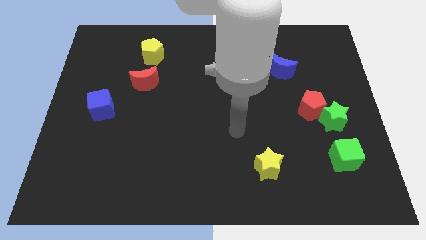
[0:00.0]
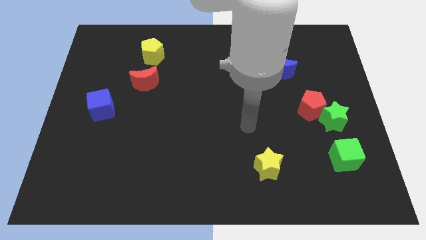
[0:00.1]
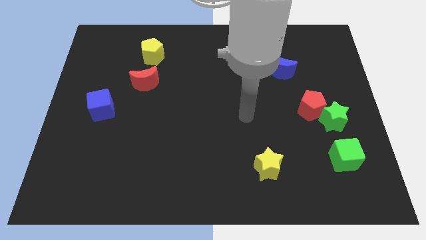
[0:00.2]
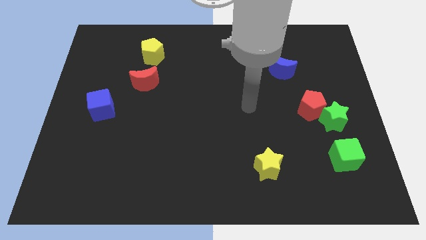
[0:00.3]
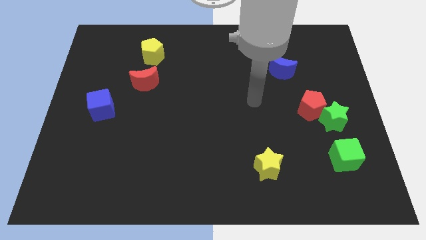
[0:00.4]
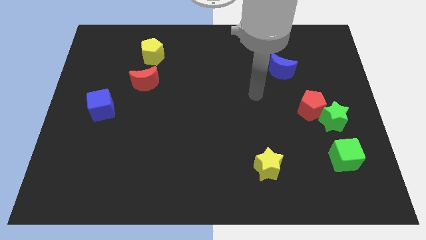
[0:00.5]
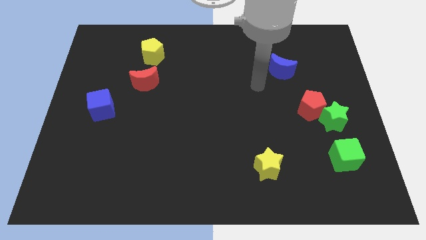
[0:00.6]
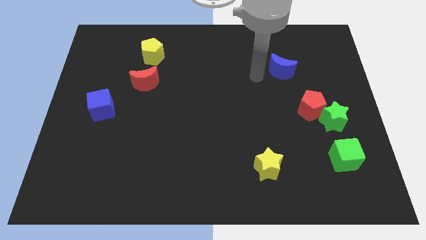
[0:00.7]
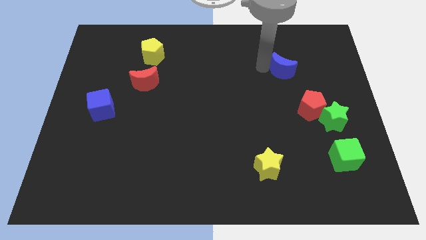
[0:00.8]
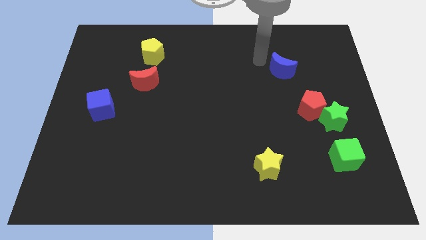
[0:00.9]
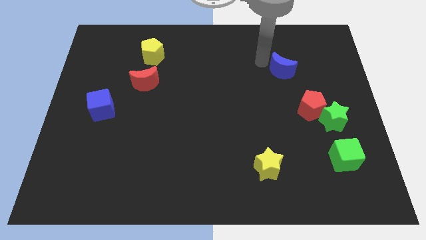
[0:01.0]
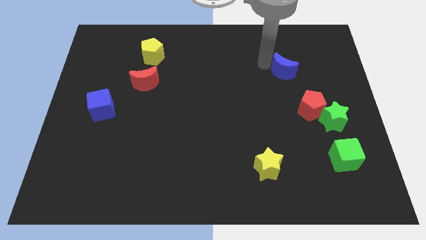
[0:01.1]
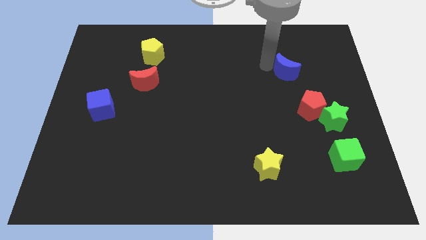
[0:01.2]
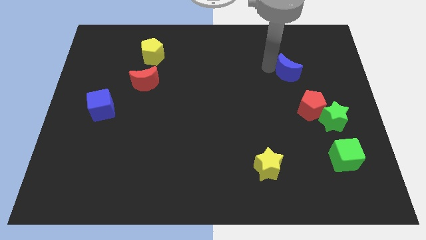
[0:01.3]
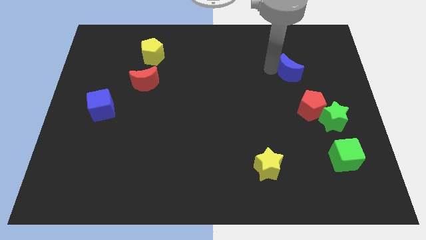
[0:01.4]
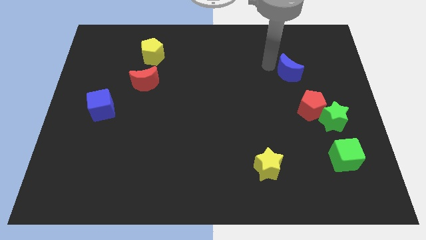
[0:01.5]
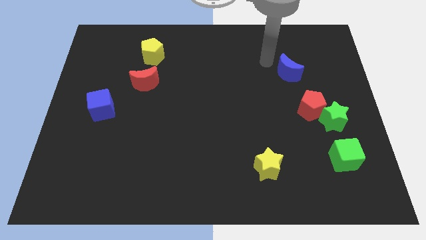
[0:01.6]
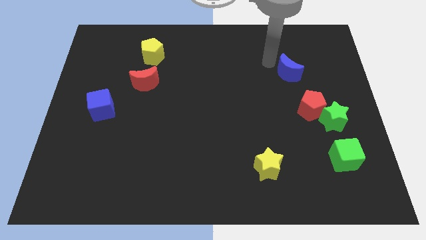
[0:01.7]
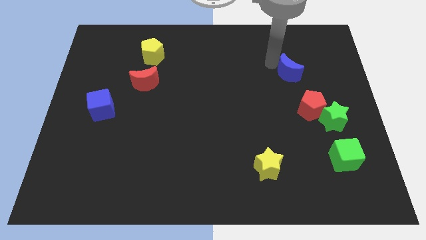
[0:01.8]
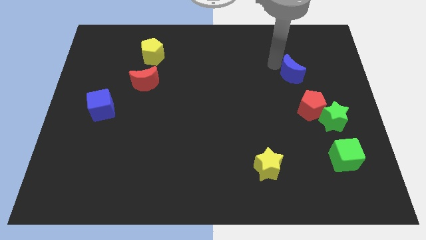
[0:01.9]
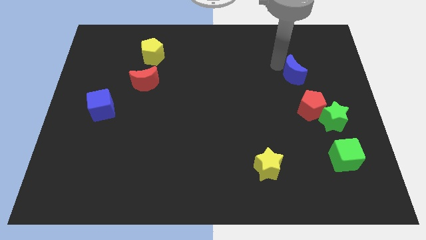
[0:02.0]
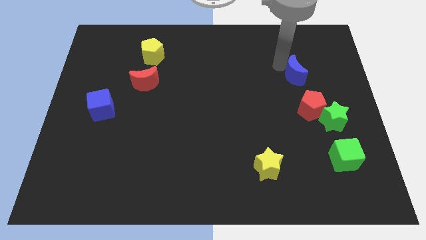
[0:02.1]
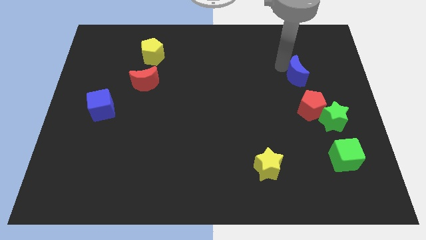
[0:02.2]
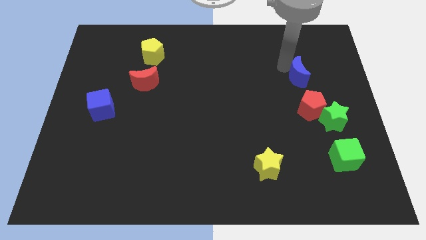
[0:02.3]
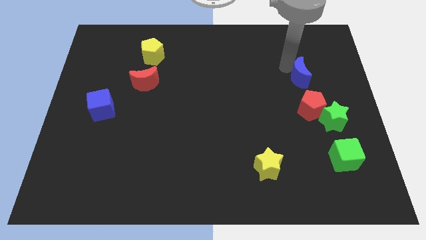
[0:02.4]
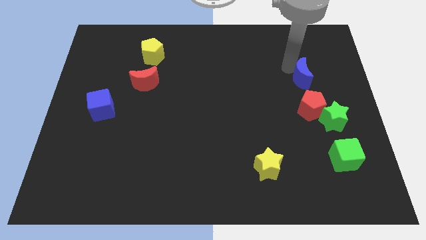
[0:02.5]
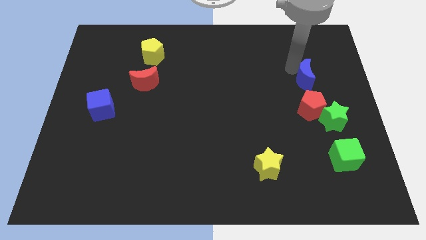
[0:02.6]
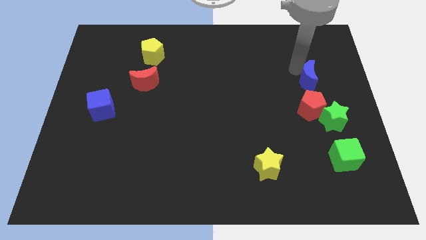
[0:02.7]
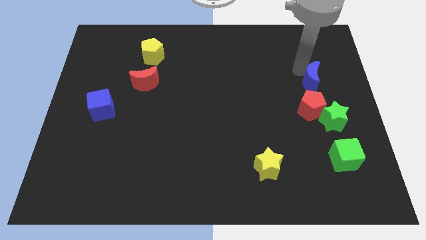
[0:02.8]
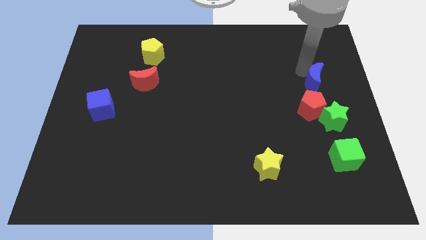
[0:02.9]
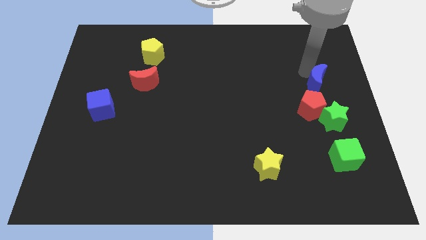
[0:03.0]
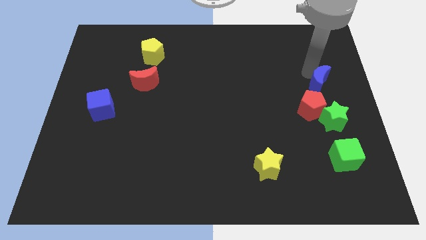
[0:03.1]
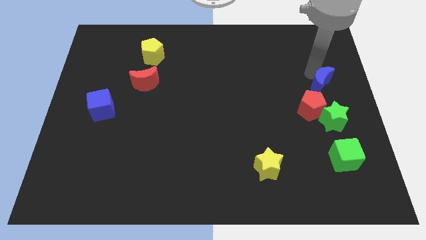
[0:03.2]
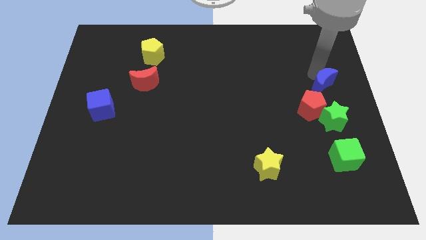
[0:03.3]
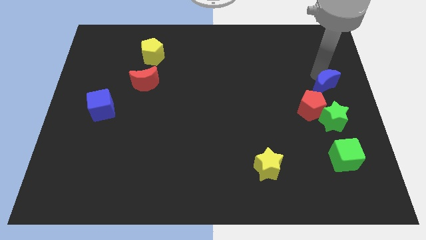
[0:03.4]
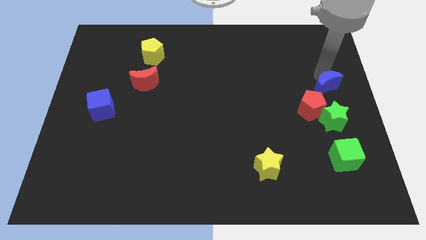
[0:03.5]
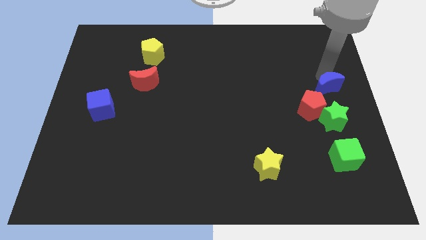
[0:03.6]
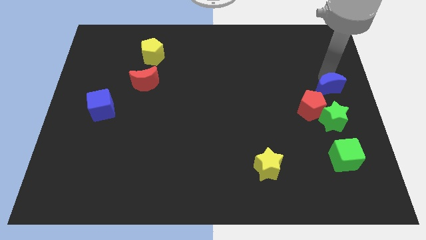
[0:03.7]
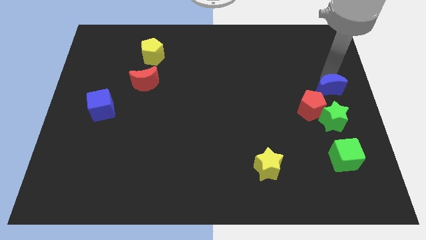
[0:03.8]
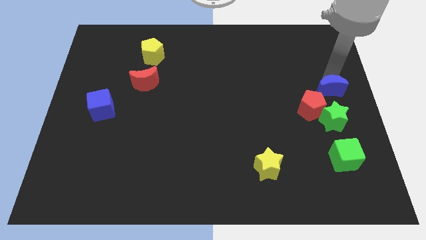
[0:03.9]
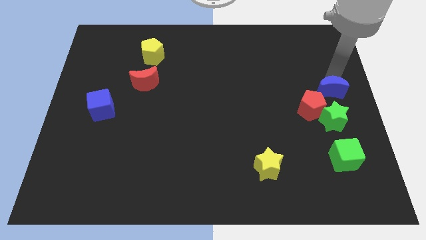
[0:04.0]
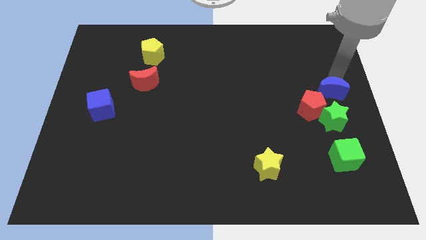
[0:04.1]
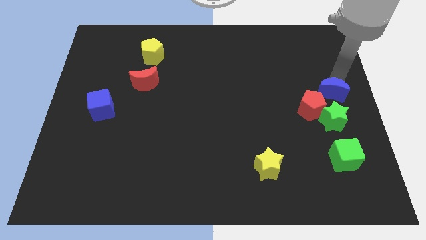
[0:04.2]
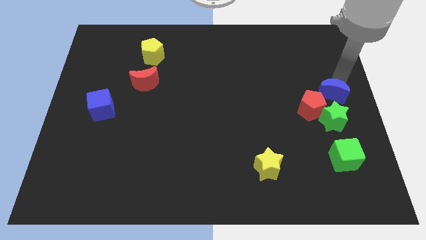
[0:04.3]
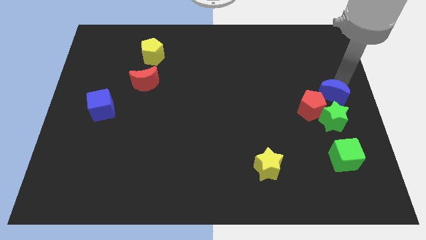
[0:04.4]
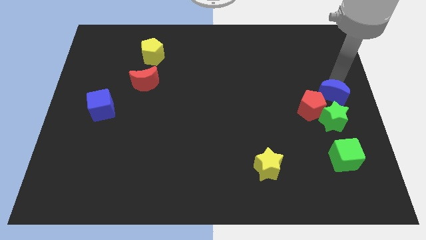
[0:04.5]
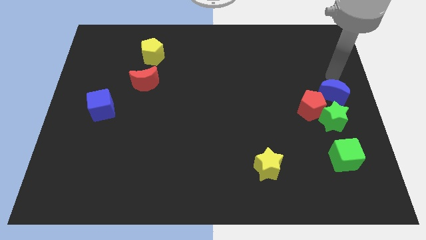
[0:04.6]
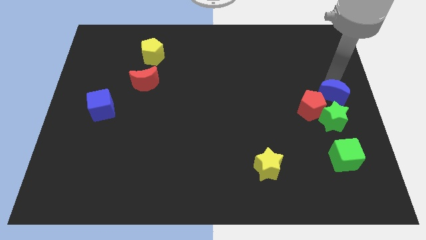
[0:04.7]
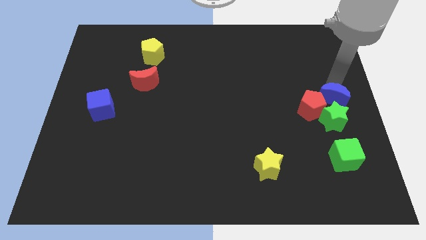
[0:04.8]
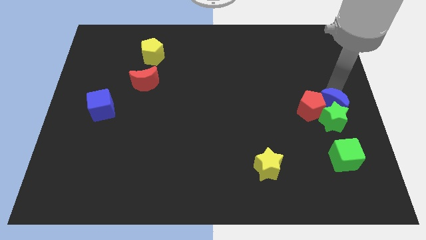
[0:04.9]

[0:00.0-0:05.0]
push the blue moon to the green star

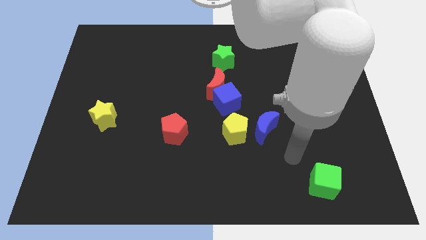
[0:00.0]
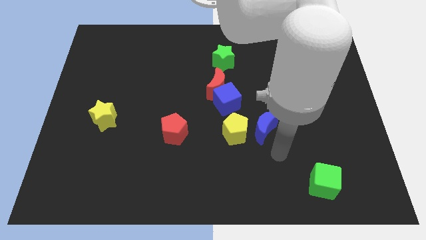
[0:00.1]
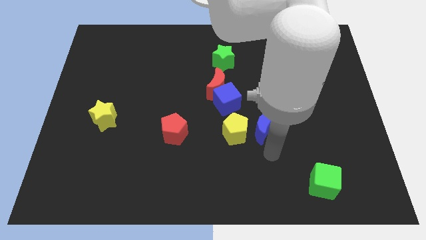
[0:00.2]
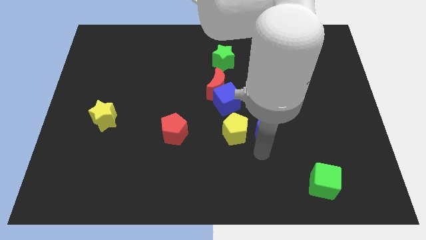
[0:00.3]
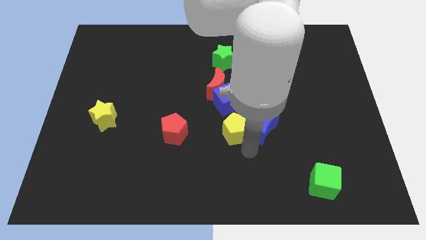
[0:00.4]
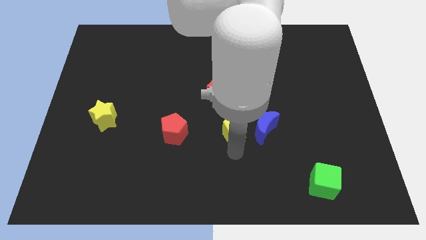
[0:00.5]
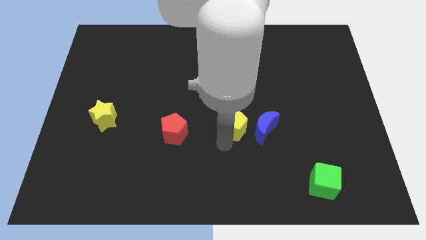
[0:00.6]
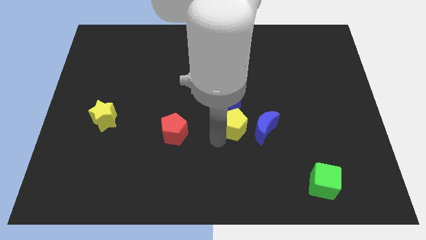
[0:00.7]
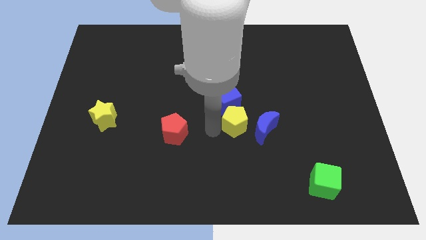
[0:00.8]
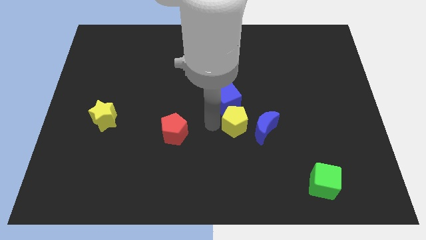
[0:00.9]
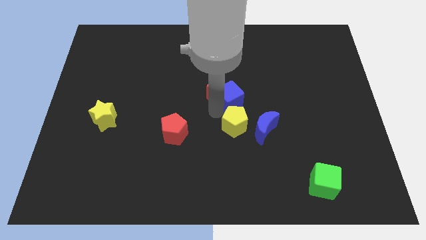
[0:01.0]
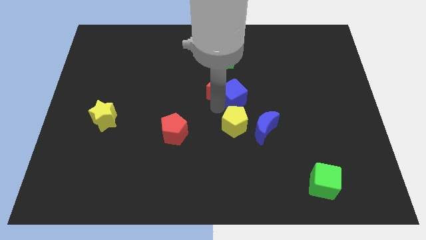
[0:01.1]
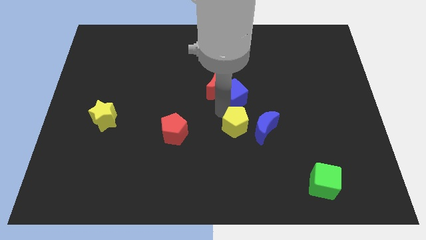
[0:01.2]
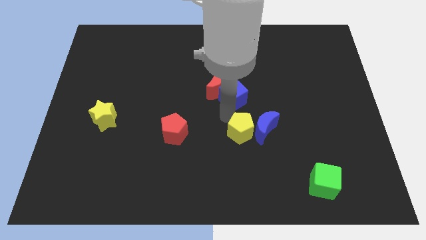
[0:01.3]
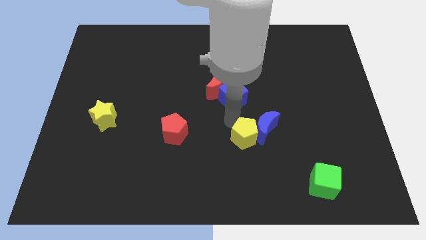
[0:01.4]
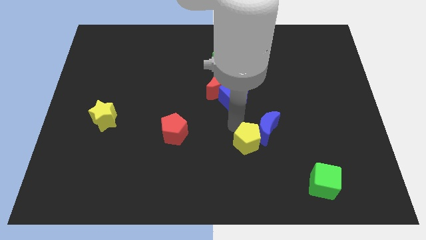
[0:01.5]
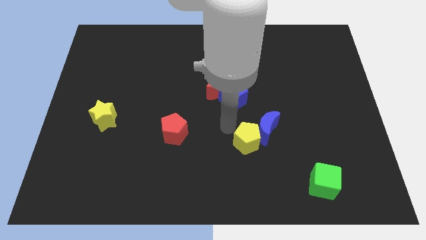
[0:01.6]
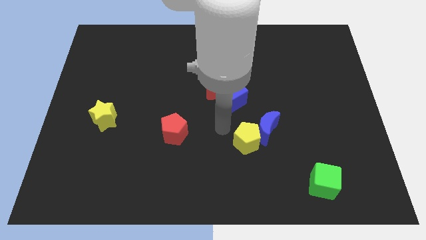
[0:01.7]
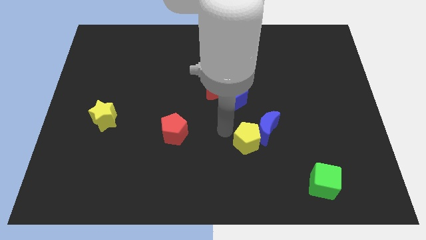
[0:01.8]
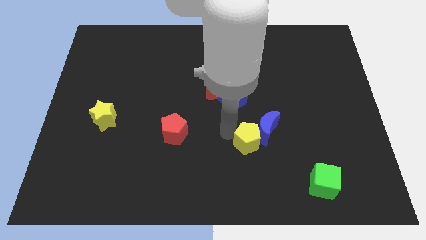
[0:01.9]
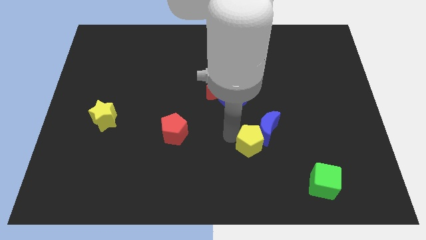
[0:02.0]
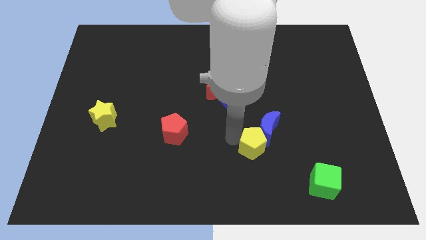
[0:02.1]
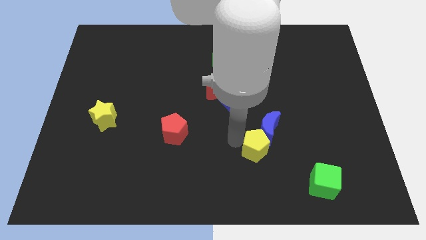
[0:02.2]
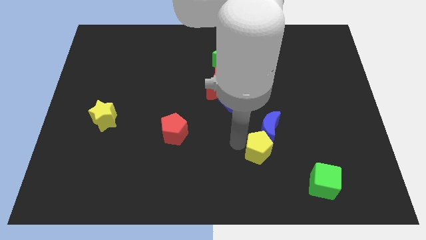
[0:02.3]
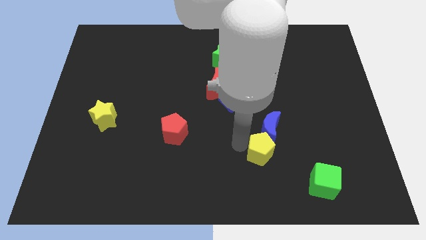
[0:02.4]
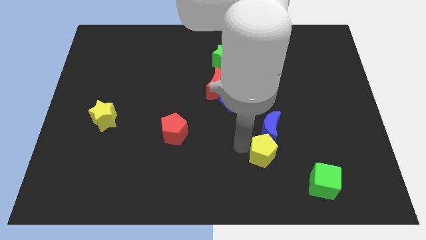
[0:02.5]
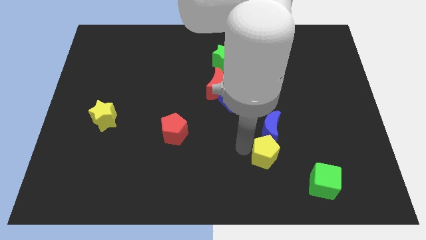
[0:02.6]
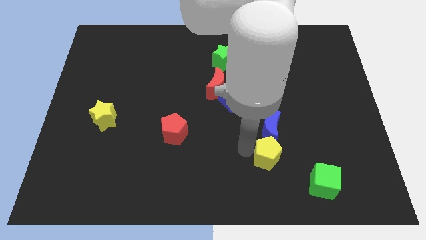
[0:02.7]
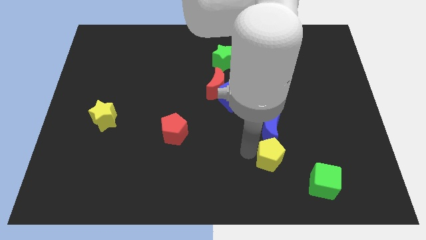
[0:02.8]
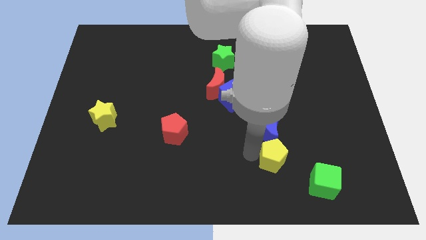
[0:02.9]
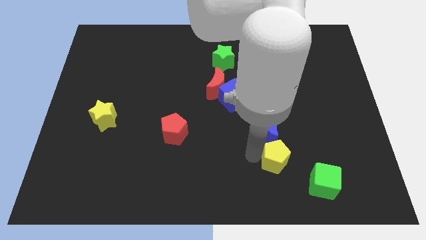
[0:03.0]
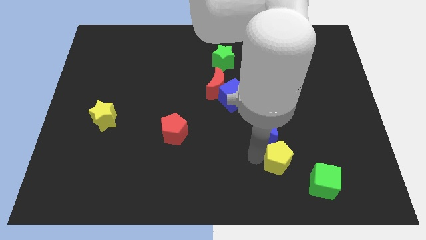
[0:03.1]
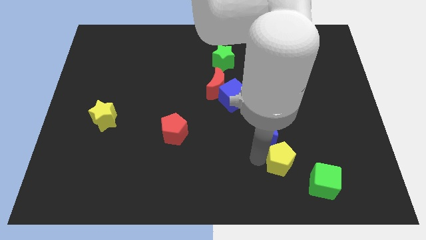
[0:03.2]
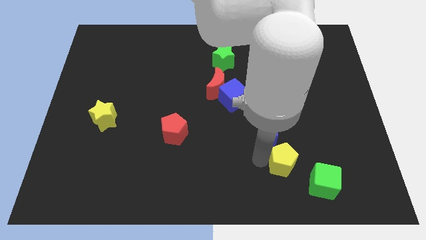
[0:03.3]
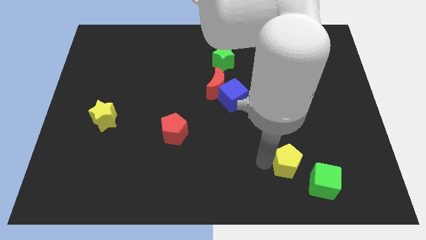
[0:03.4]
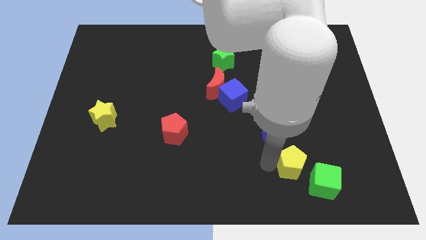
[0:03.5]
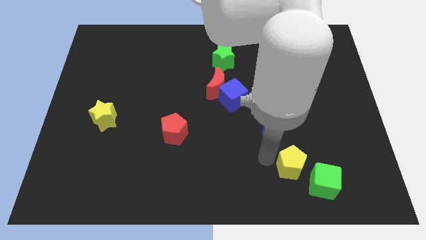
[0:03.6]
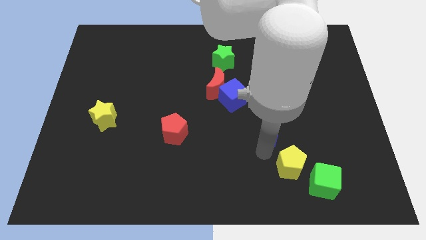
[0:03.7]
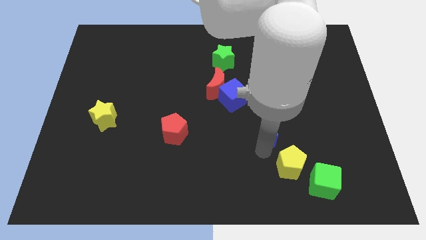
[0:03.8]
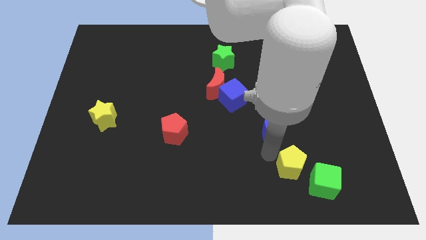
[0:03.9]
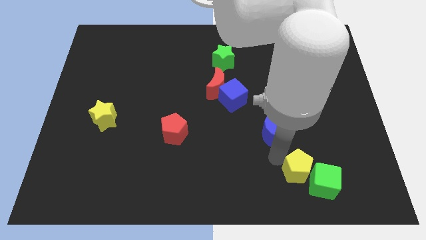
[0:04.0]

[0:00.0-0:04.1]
put the yellow pentagon to the green cube
